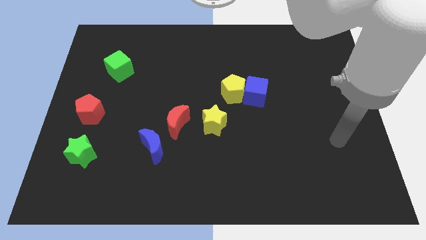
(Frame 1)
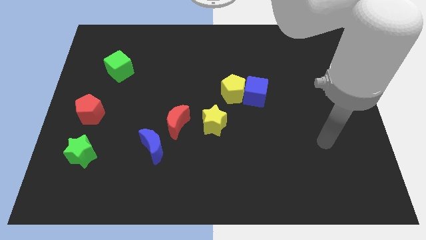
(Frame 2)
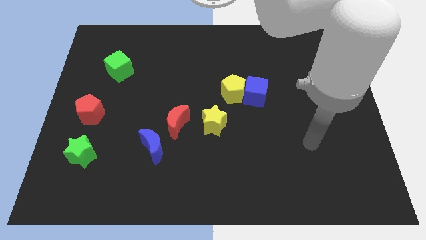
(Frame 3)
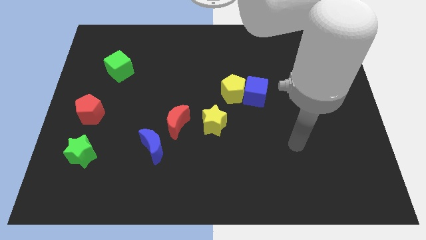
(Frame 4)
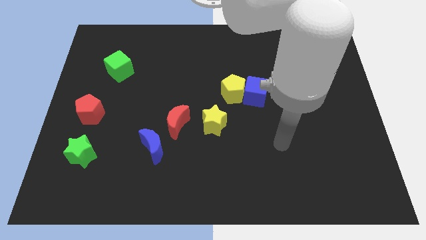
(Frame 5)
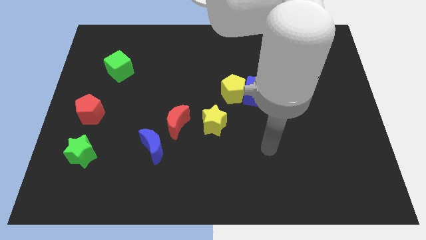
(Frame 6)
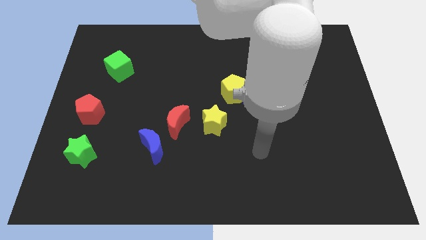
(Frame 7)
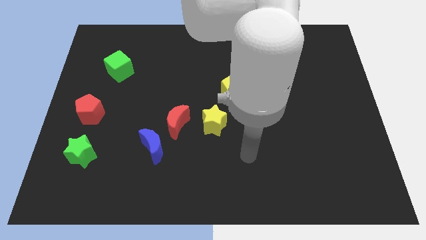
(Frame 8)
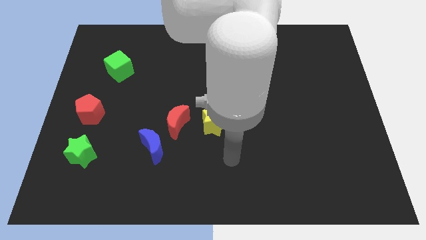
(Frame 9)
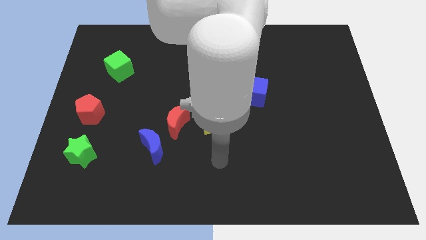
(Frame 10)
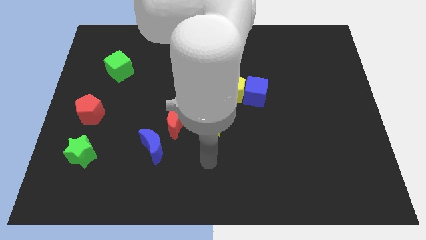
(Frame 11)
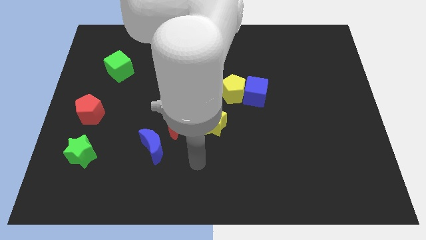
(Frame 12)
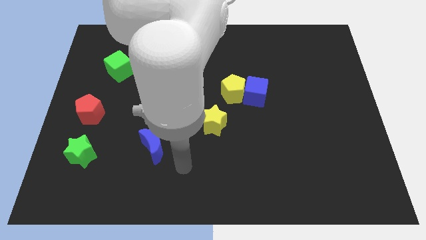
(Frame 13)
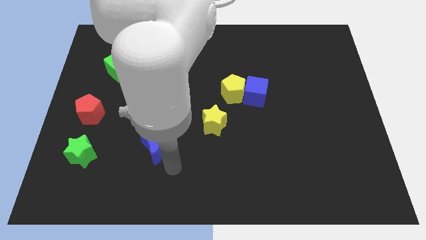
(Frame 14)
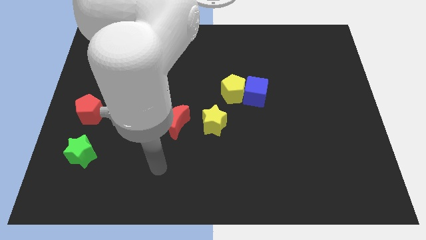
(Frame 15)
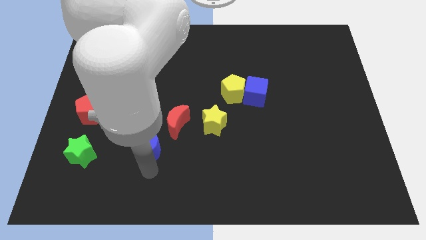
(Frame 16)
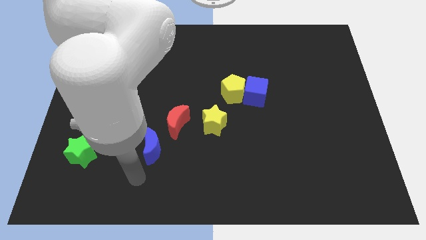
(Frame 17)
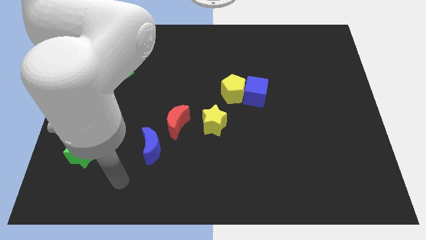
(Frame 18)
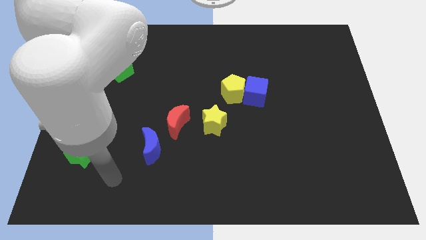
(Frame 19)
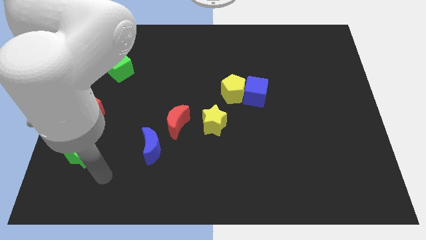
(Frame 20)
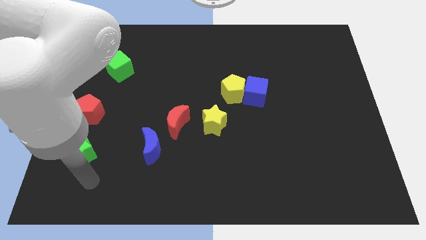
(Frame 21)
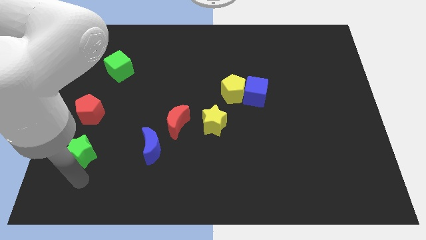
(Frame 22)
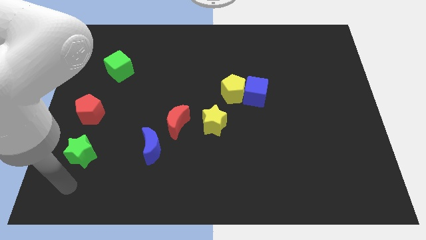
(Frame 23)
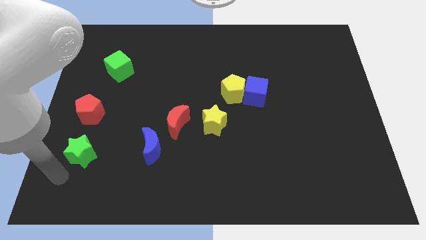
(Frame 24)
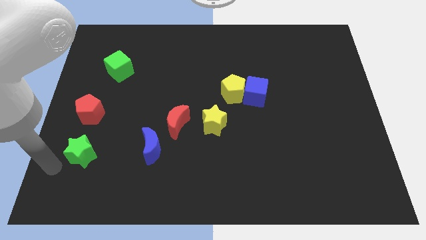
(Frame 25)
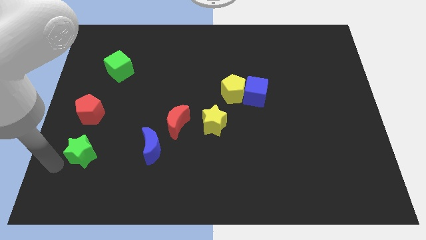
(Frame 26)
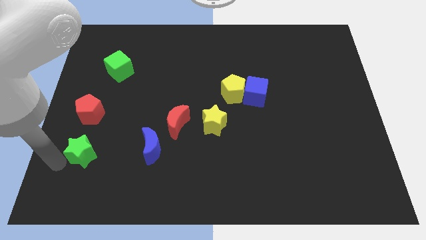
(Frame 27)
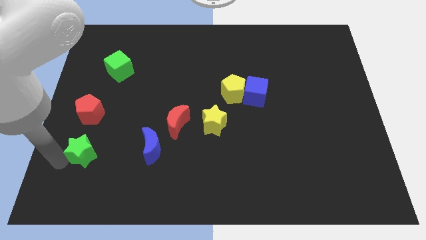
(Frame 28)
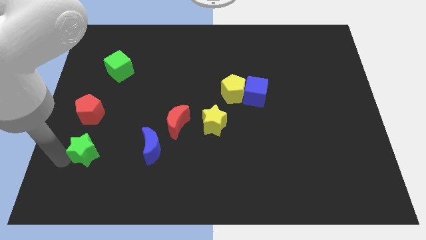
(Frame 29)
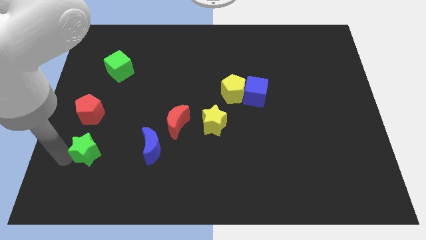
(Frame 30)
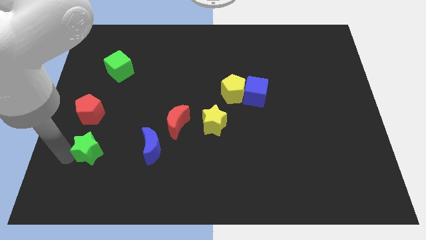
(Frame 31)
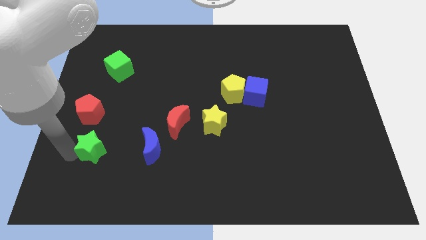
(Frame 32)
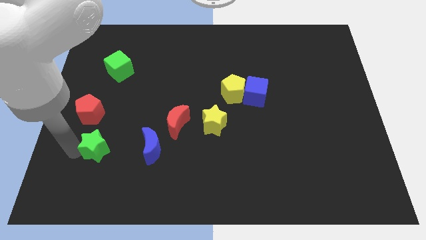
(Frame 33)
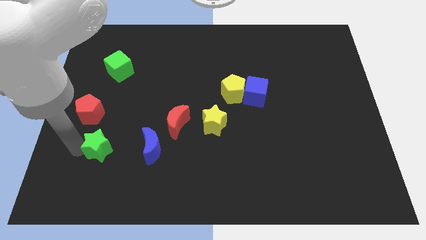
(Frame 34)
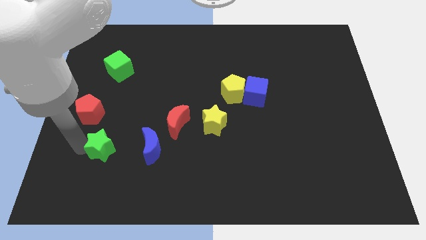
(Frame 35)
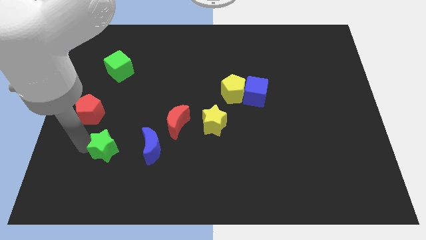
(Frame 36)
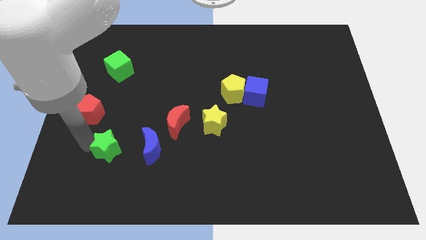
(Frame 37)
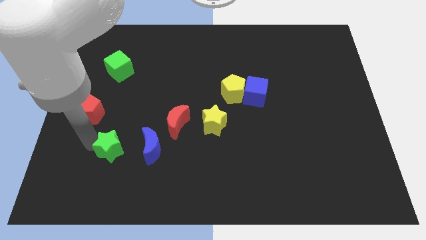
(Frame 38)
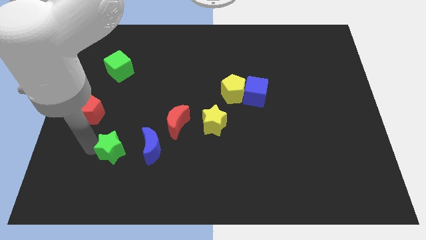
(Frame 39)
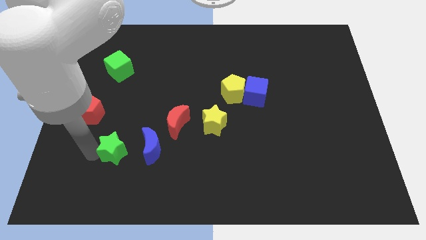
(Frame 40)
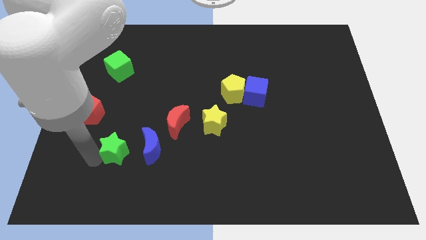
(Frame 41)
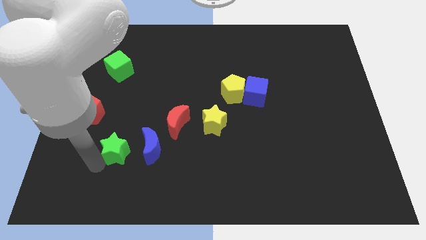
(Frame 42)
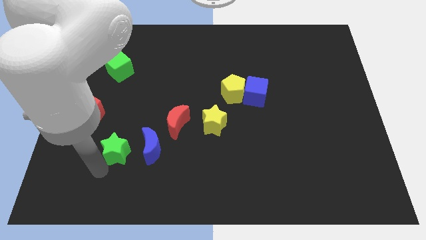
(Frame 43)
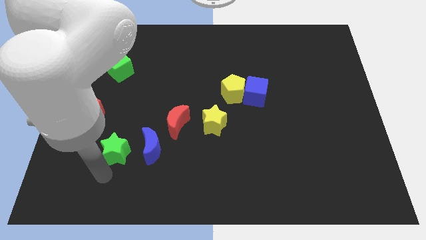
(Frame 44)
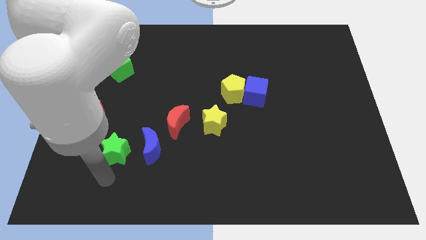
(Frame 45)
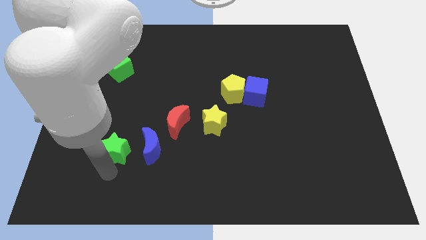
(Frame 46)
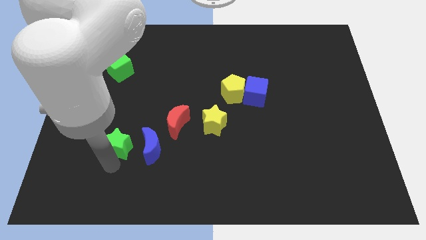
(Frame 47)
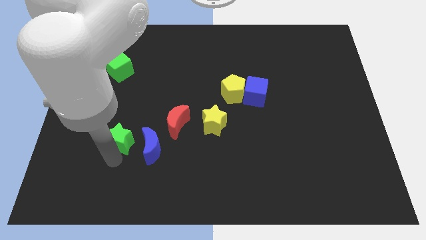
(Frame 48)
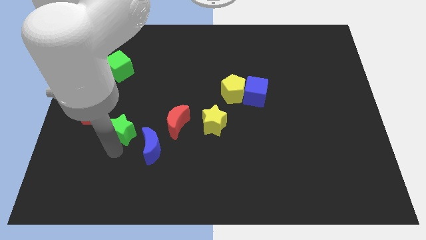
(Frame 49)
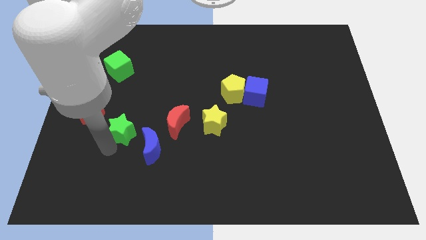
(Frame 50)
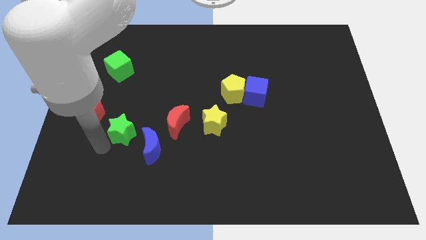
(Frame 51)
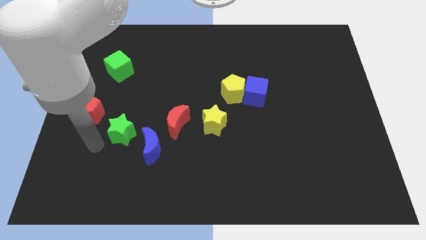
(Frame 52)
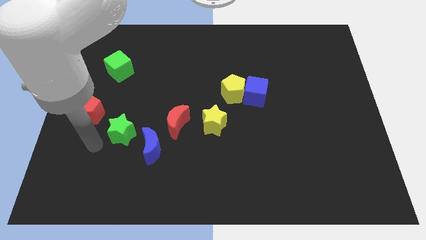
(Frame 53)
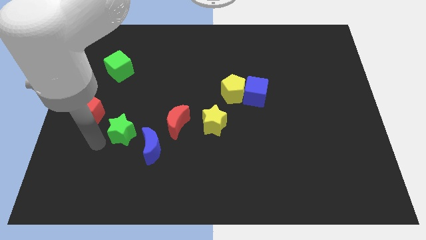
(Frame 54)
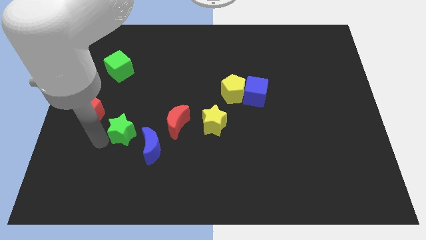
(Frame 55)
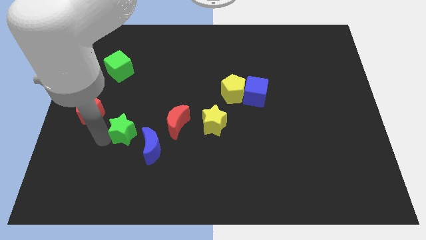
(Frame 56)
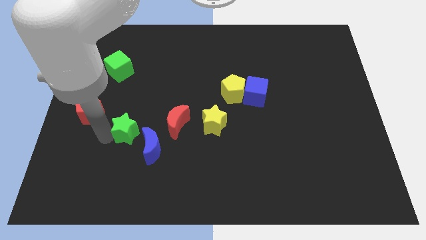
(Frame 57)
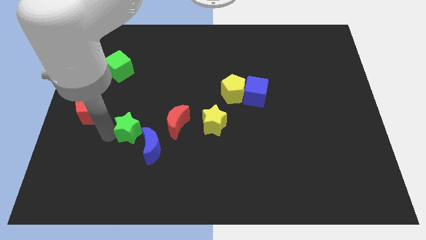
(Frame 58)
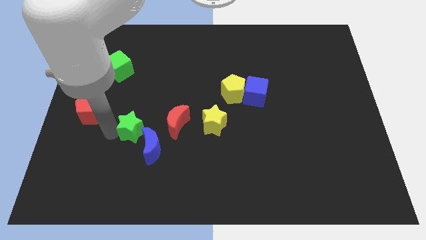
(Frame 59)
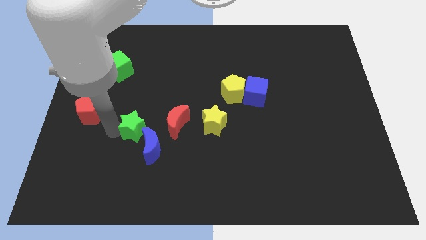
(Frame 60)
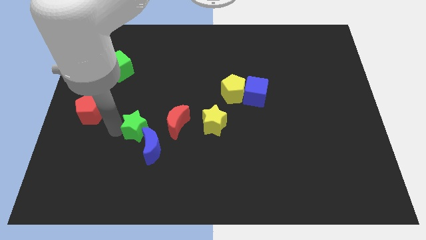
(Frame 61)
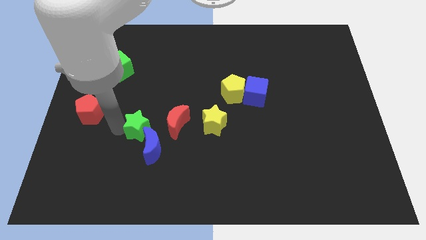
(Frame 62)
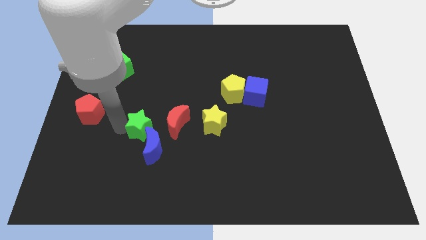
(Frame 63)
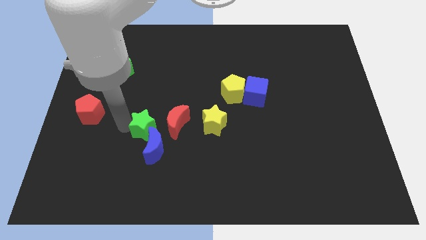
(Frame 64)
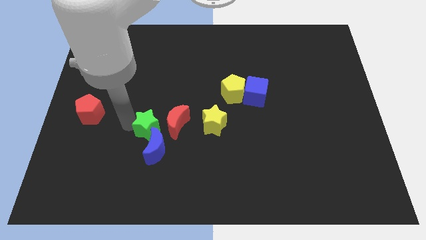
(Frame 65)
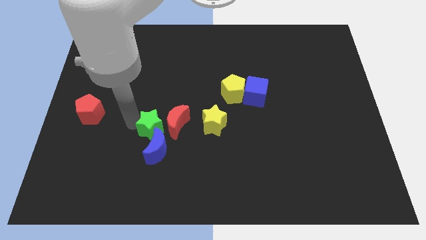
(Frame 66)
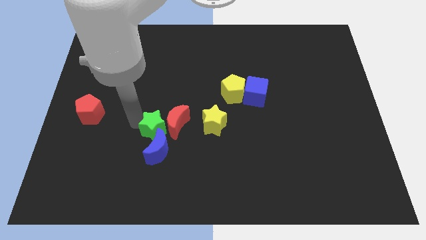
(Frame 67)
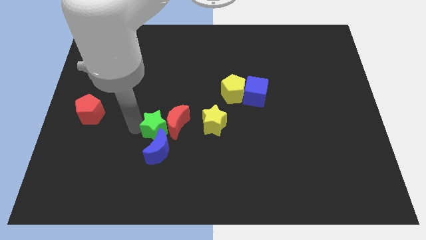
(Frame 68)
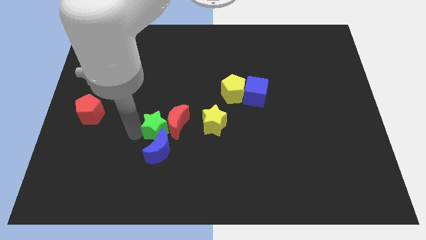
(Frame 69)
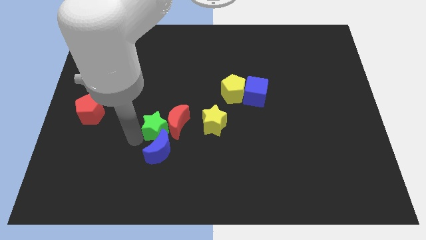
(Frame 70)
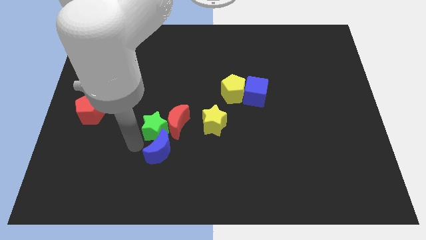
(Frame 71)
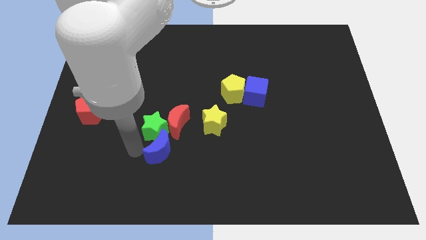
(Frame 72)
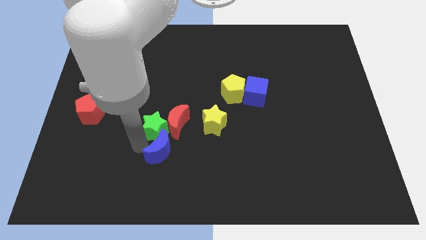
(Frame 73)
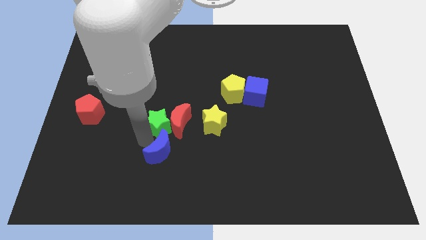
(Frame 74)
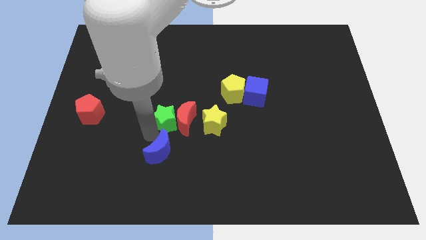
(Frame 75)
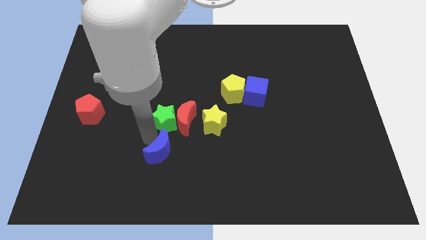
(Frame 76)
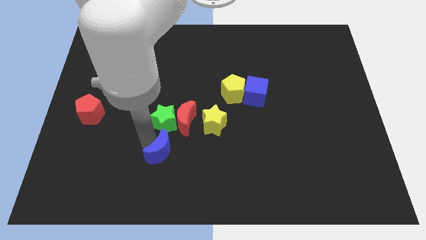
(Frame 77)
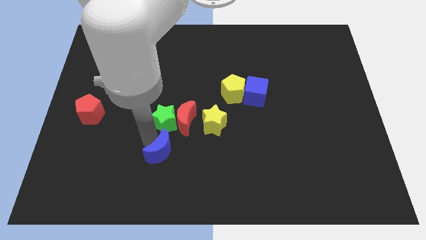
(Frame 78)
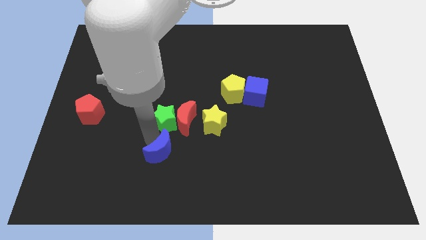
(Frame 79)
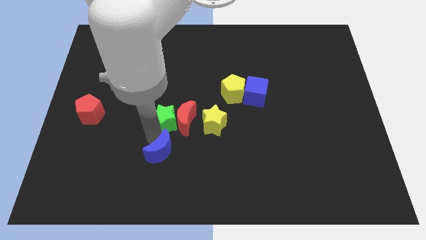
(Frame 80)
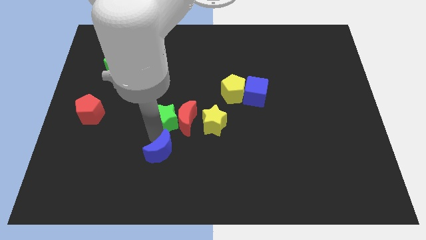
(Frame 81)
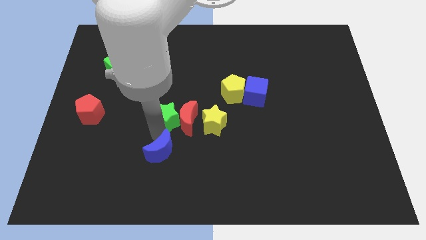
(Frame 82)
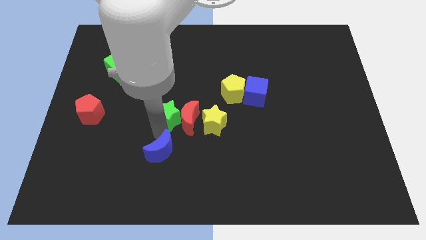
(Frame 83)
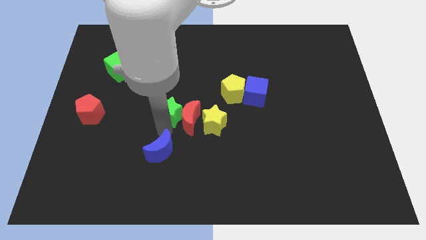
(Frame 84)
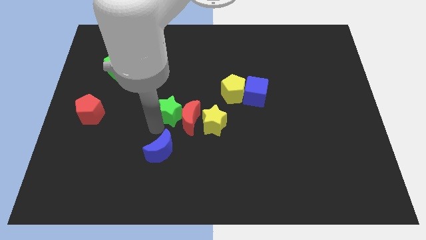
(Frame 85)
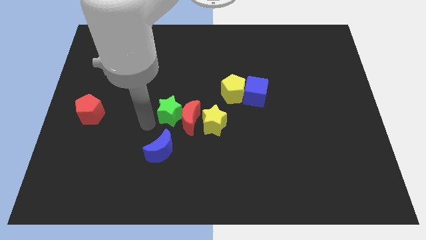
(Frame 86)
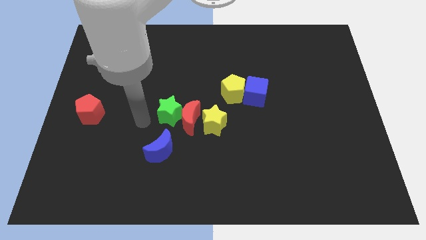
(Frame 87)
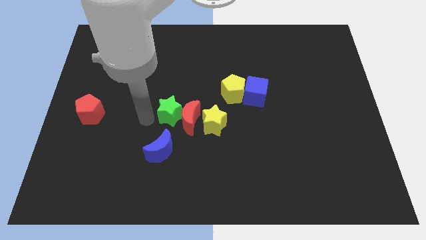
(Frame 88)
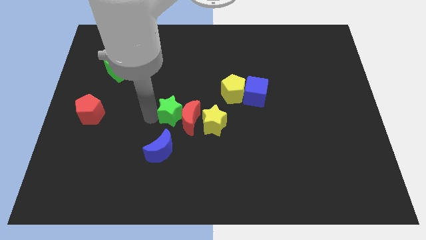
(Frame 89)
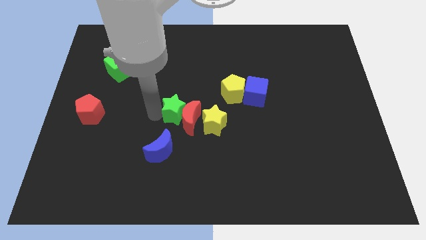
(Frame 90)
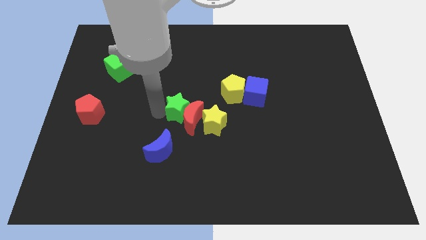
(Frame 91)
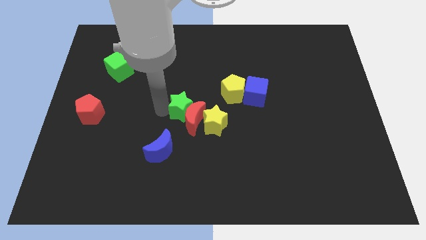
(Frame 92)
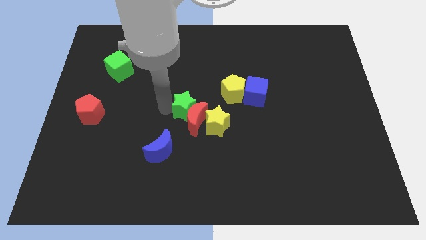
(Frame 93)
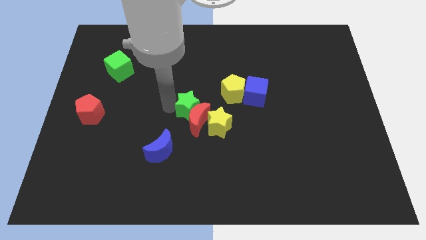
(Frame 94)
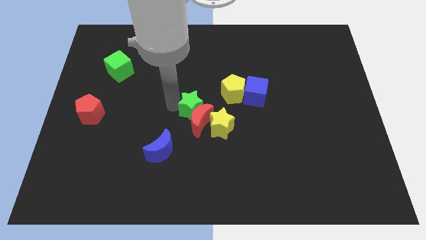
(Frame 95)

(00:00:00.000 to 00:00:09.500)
move the green star to the top right of the red moon
